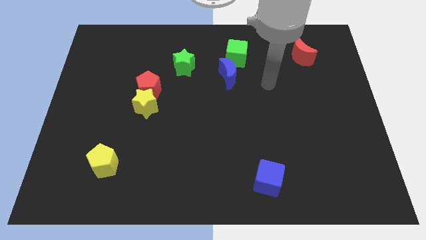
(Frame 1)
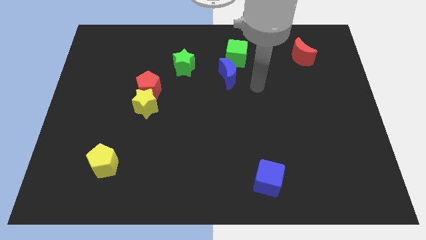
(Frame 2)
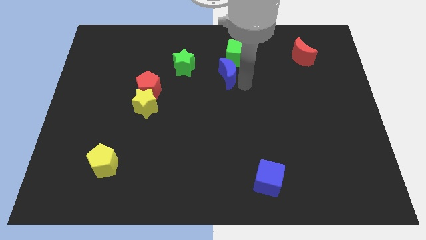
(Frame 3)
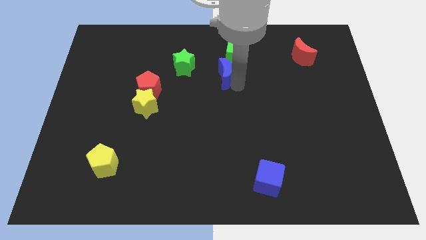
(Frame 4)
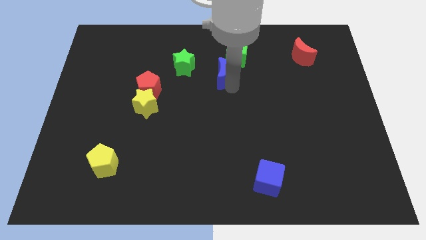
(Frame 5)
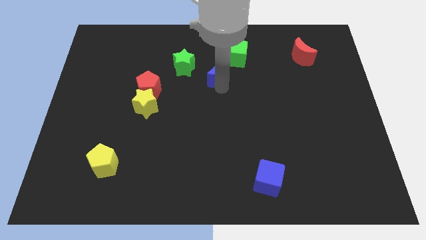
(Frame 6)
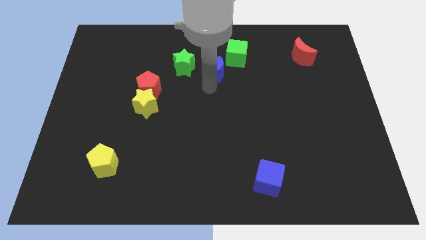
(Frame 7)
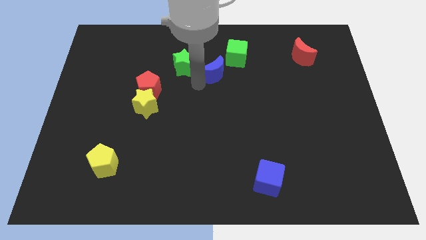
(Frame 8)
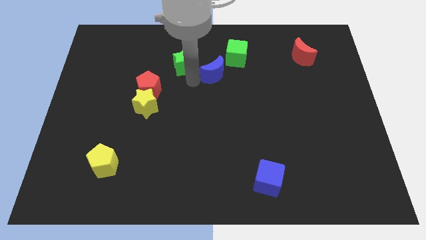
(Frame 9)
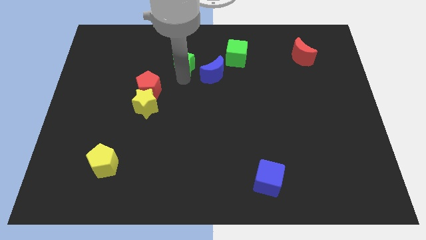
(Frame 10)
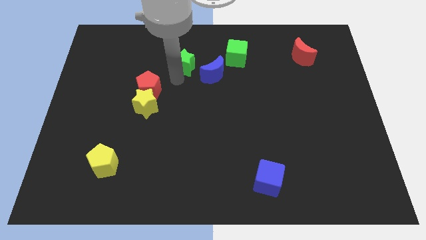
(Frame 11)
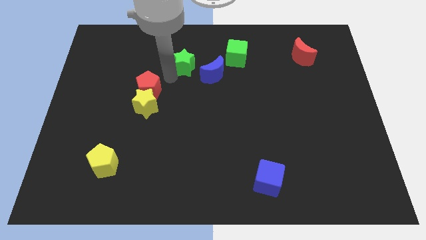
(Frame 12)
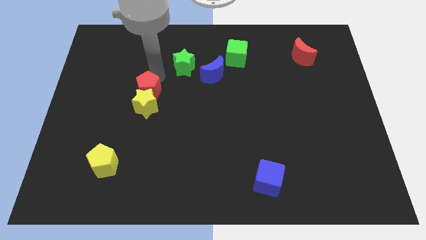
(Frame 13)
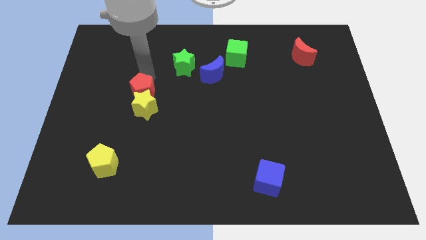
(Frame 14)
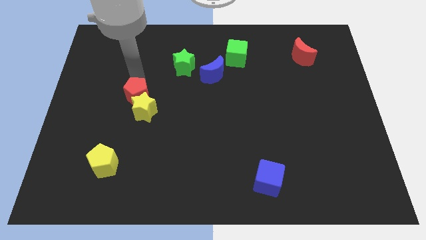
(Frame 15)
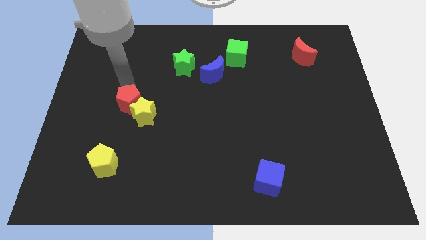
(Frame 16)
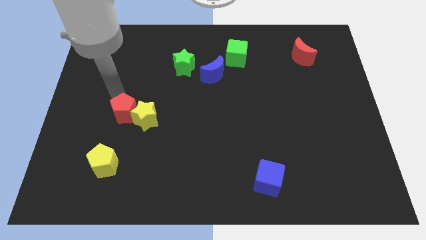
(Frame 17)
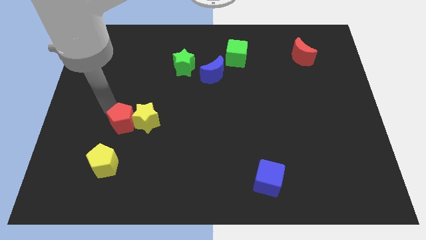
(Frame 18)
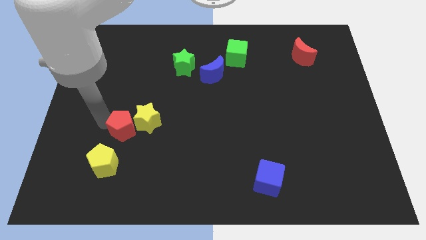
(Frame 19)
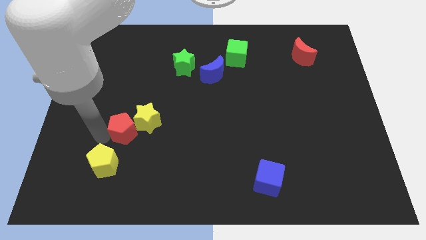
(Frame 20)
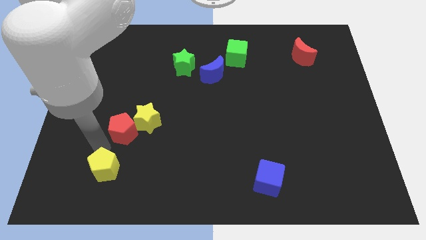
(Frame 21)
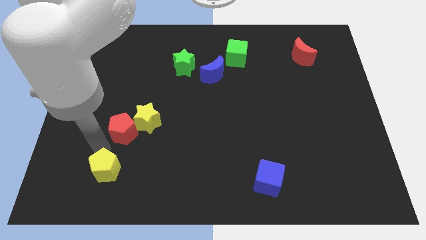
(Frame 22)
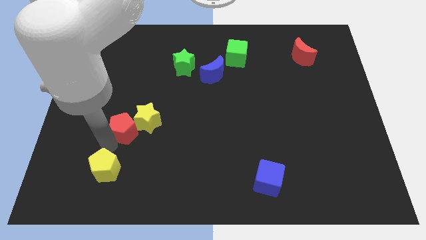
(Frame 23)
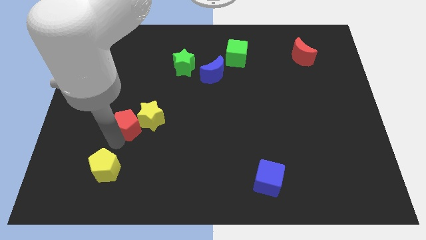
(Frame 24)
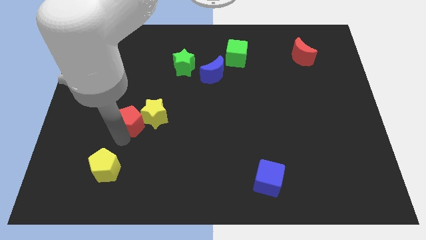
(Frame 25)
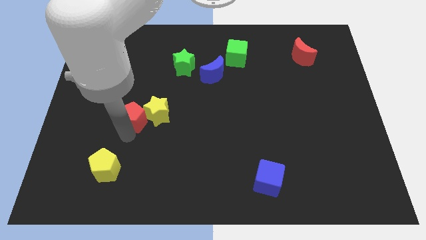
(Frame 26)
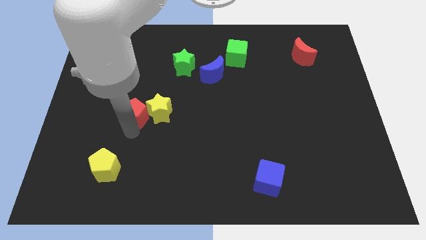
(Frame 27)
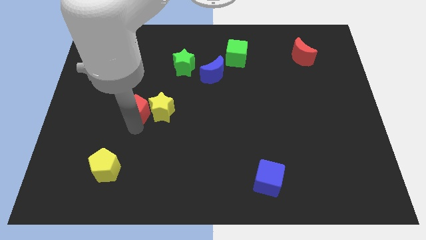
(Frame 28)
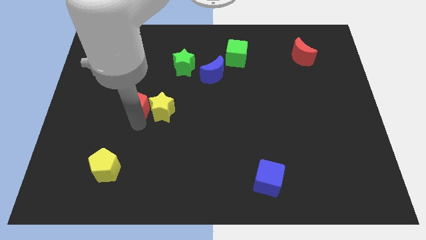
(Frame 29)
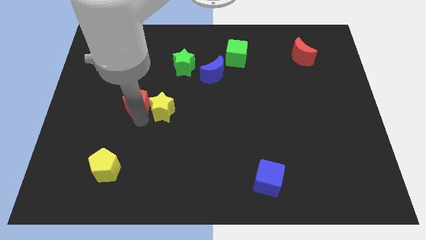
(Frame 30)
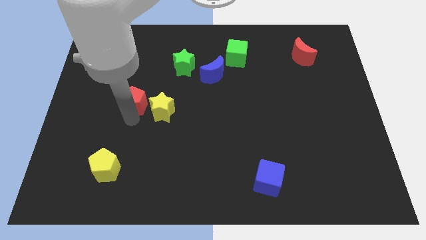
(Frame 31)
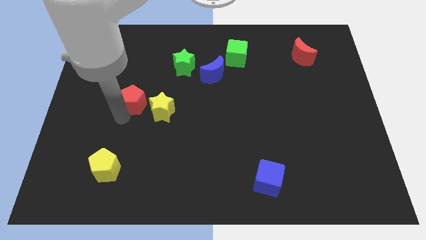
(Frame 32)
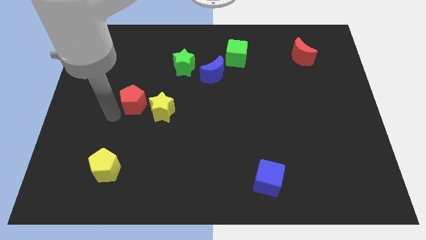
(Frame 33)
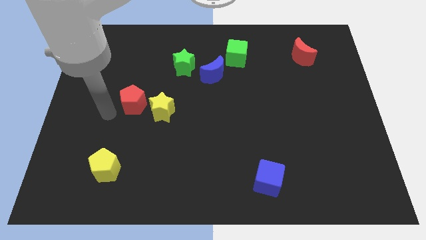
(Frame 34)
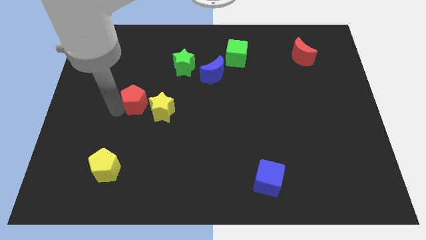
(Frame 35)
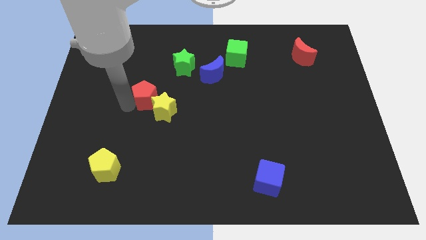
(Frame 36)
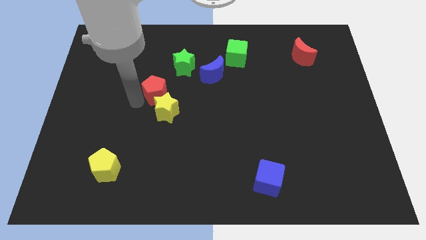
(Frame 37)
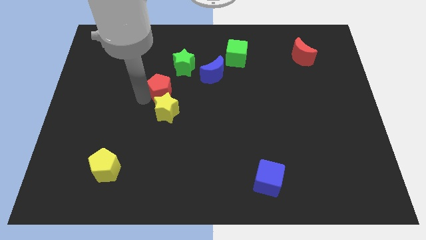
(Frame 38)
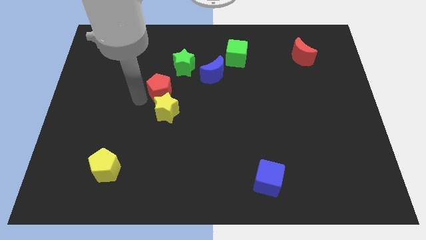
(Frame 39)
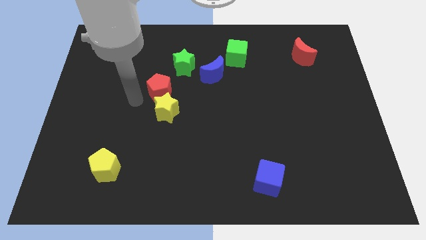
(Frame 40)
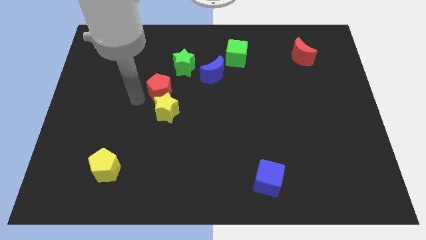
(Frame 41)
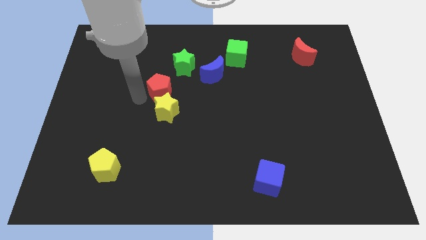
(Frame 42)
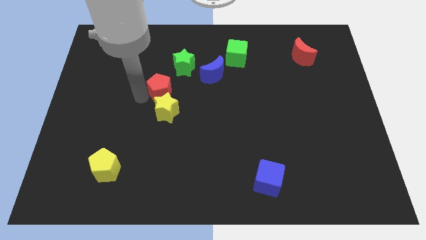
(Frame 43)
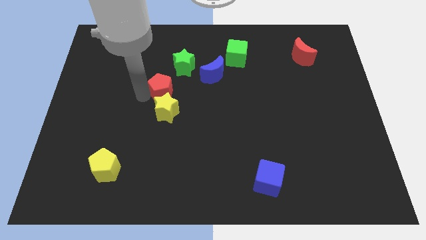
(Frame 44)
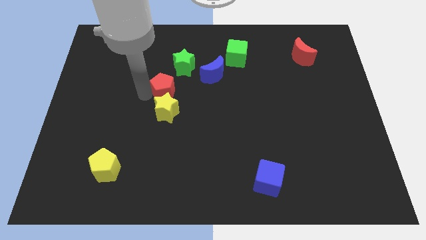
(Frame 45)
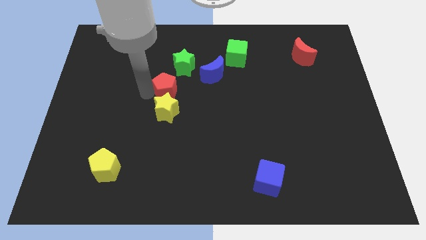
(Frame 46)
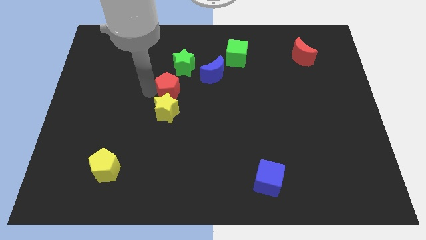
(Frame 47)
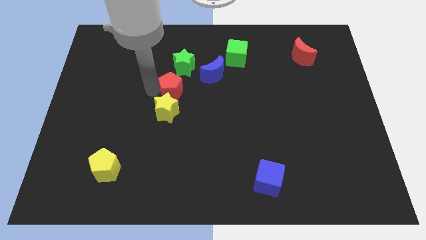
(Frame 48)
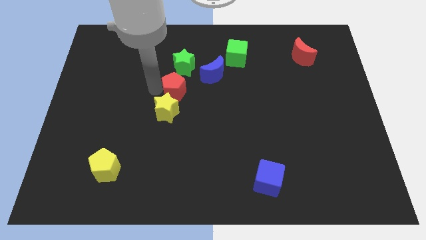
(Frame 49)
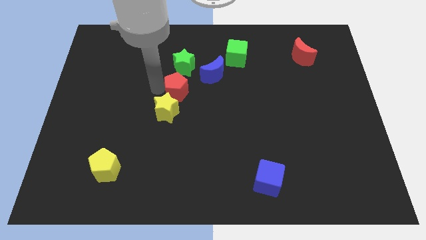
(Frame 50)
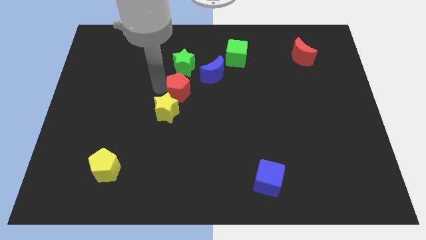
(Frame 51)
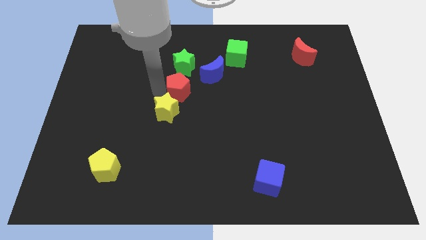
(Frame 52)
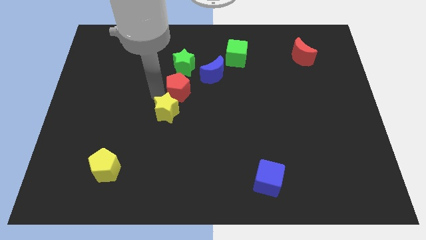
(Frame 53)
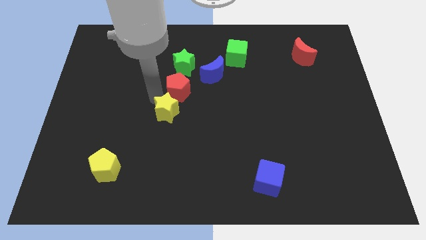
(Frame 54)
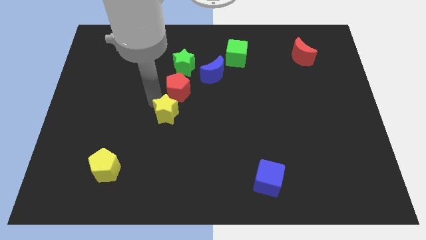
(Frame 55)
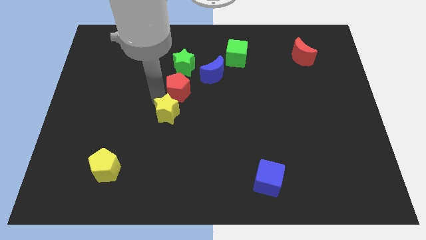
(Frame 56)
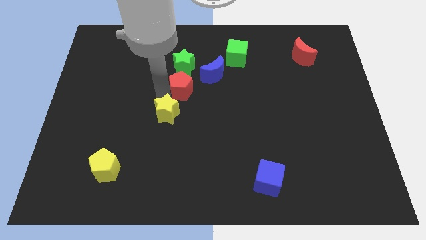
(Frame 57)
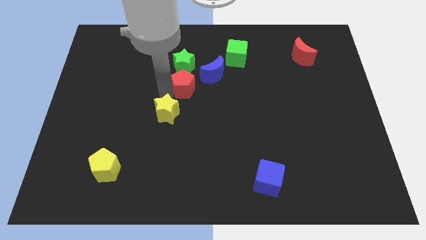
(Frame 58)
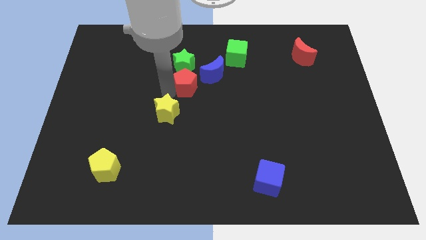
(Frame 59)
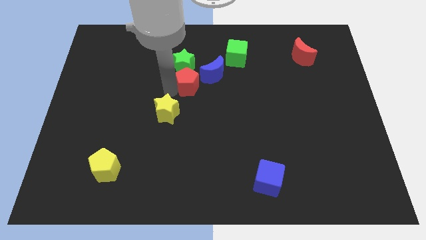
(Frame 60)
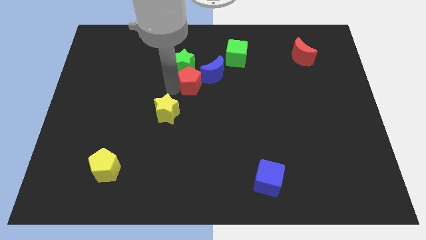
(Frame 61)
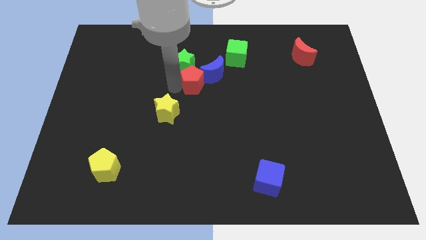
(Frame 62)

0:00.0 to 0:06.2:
put the red pentagon towards the blue moon

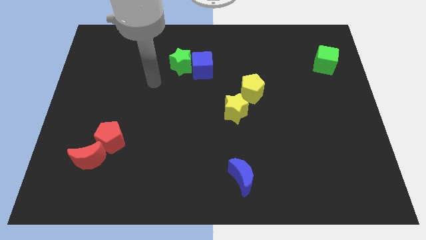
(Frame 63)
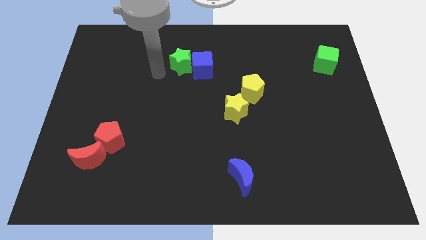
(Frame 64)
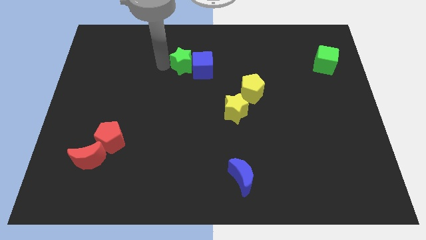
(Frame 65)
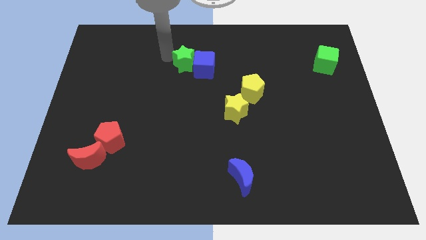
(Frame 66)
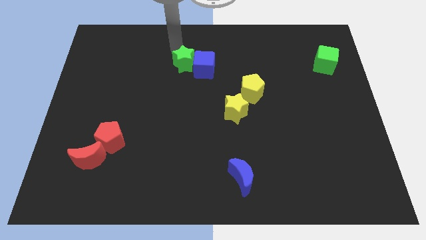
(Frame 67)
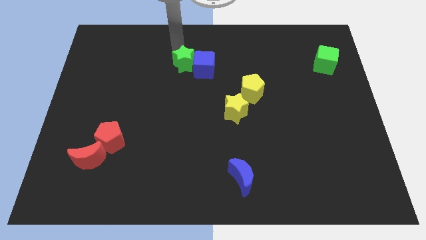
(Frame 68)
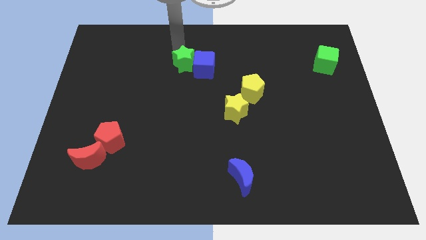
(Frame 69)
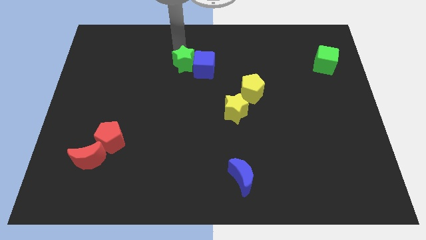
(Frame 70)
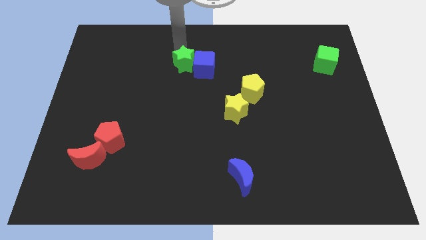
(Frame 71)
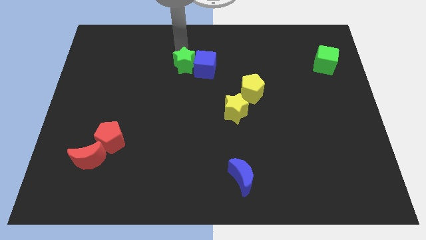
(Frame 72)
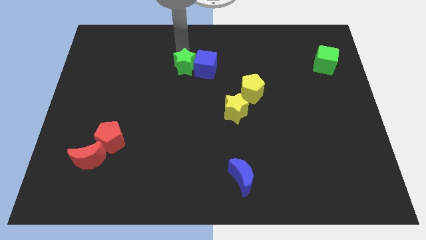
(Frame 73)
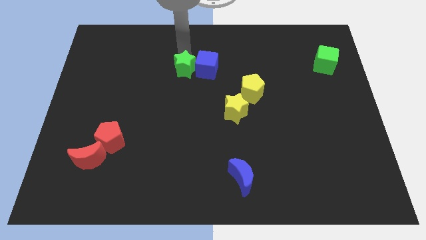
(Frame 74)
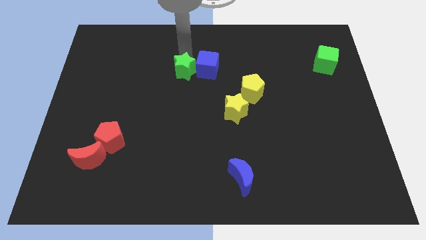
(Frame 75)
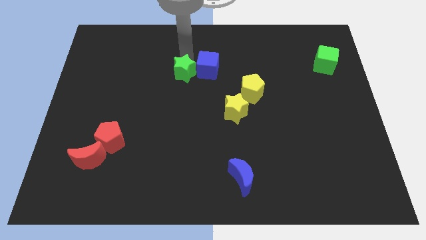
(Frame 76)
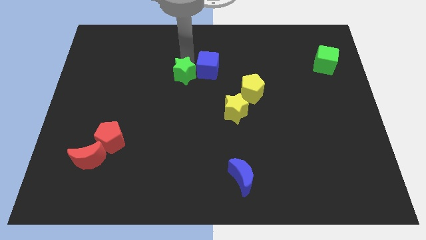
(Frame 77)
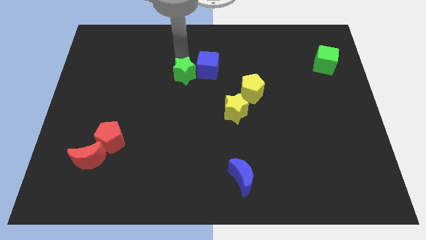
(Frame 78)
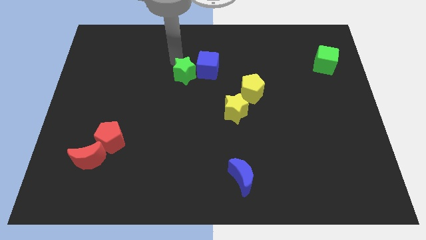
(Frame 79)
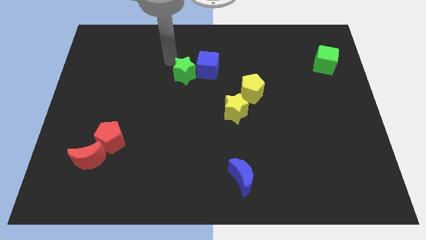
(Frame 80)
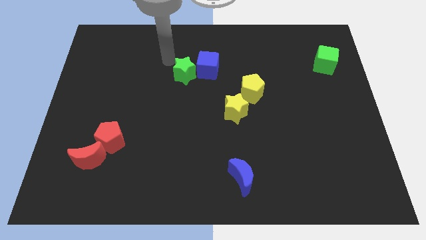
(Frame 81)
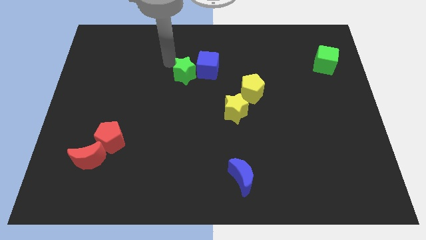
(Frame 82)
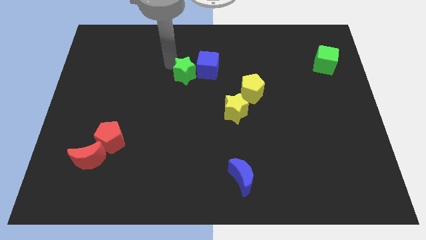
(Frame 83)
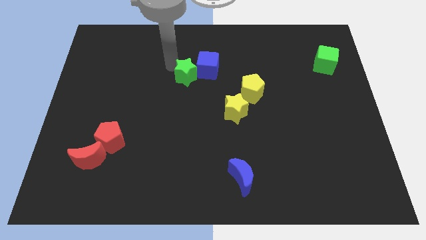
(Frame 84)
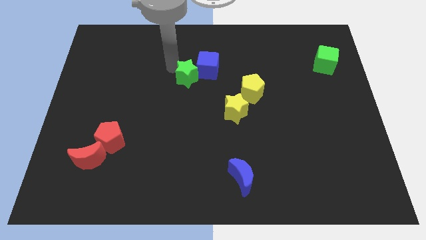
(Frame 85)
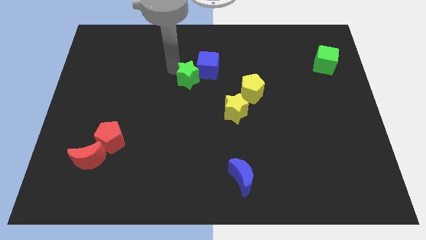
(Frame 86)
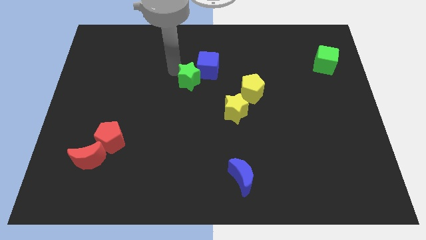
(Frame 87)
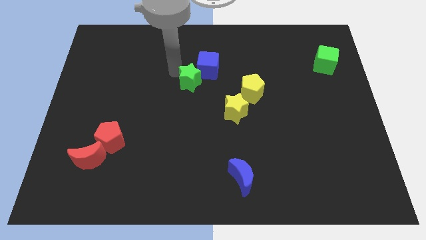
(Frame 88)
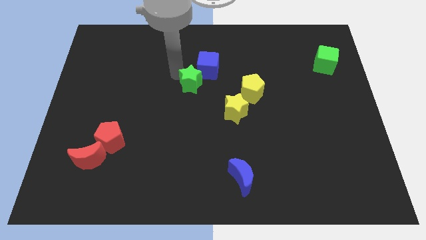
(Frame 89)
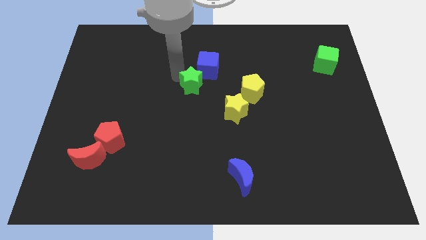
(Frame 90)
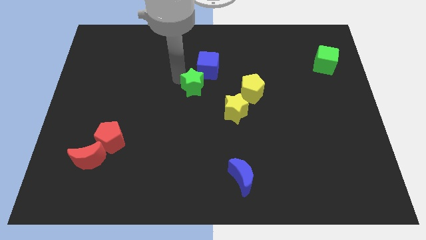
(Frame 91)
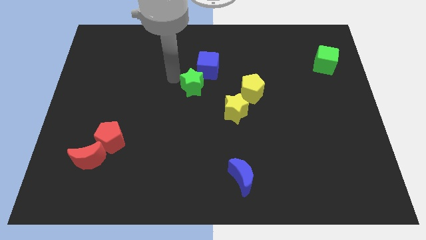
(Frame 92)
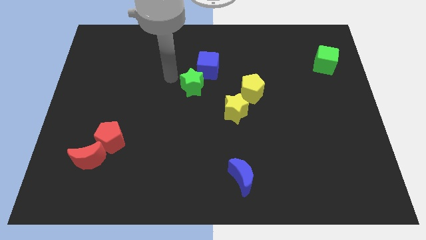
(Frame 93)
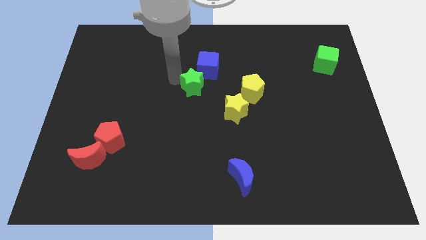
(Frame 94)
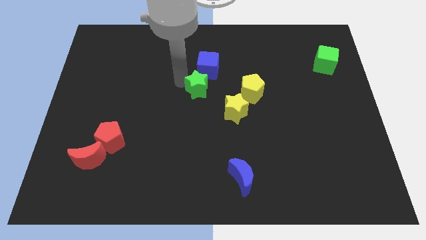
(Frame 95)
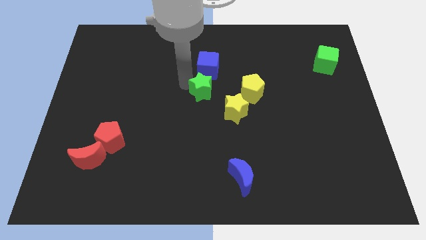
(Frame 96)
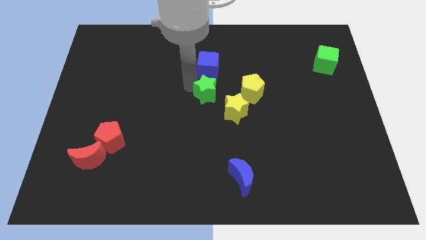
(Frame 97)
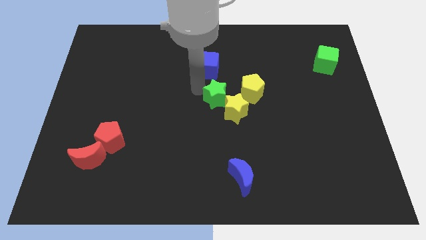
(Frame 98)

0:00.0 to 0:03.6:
push the green star towards the yellow star
